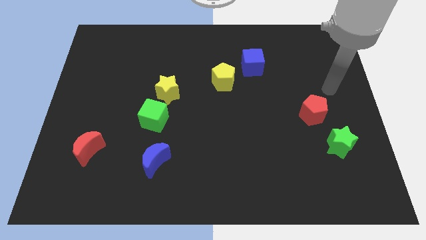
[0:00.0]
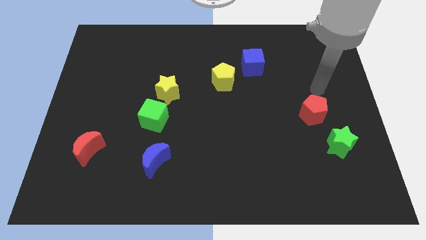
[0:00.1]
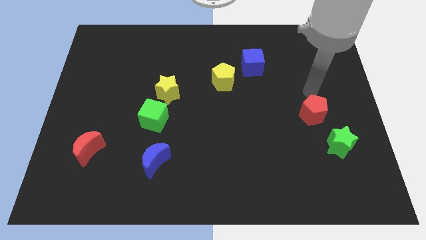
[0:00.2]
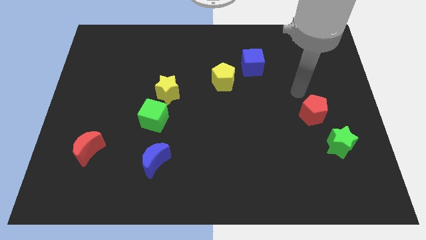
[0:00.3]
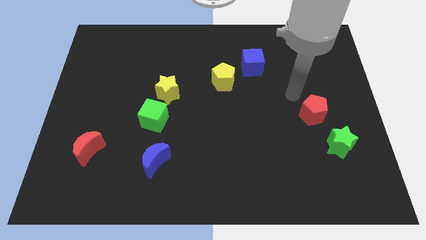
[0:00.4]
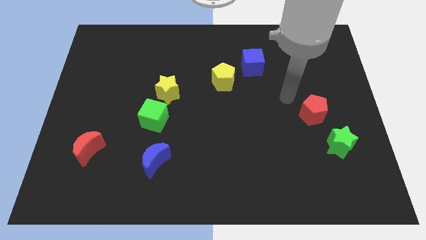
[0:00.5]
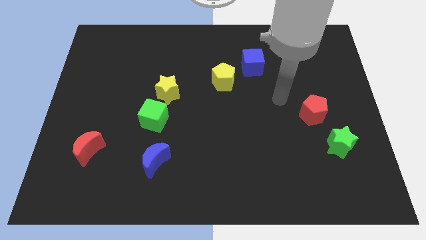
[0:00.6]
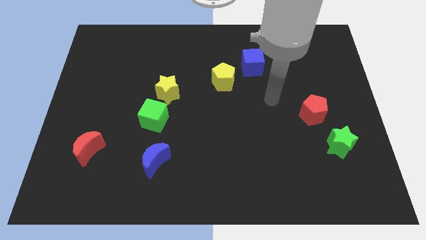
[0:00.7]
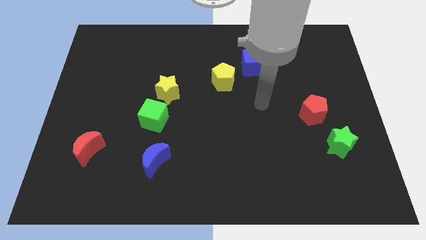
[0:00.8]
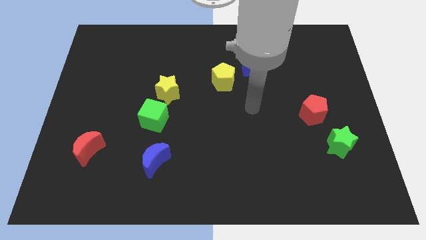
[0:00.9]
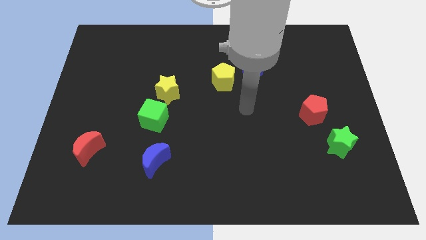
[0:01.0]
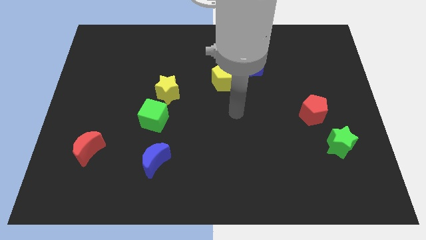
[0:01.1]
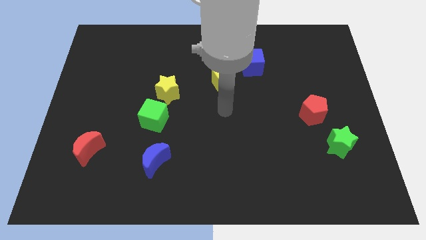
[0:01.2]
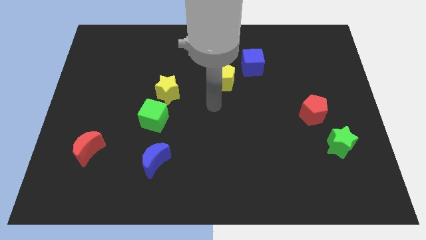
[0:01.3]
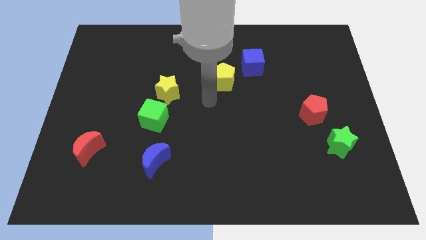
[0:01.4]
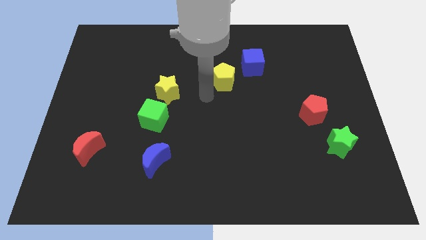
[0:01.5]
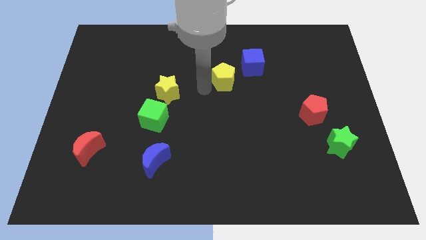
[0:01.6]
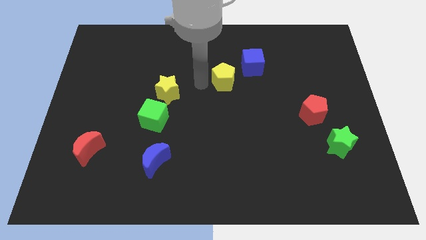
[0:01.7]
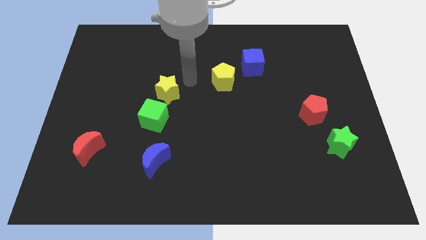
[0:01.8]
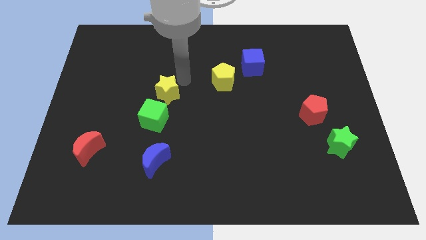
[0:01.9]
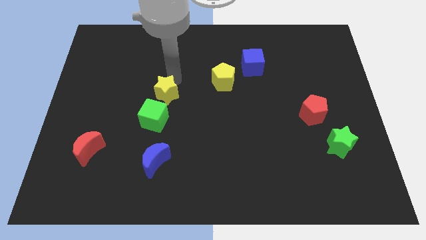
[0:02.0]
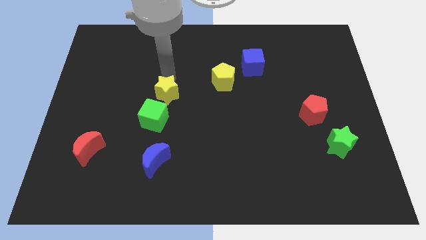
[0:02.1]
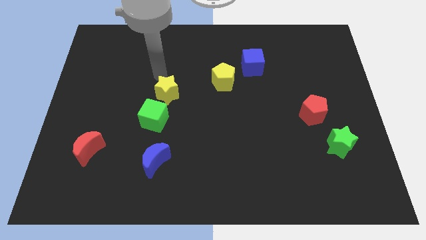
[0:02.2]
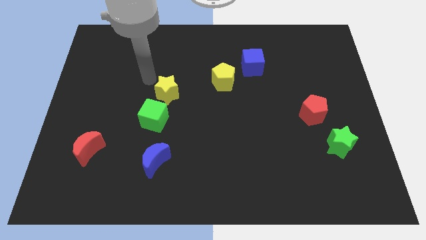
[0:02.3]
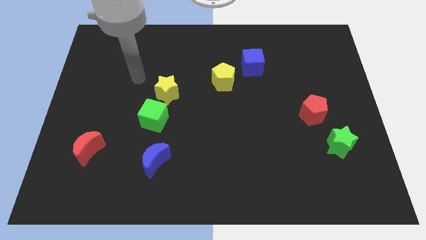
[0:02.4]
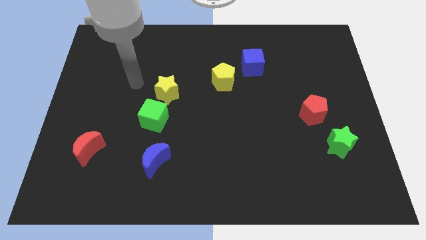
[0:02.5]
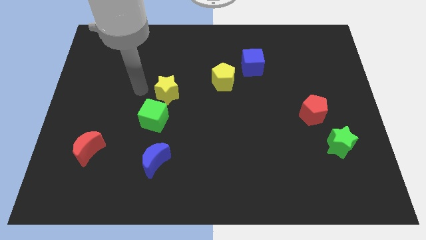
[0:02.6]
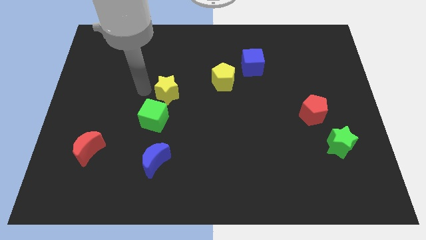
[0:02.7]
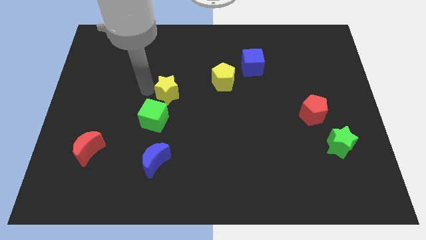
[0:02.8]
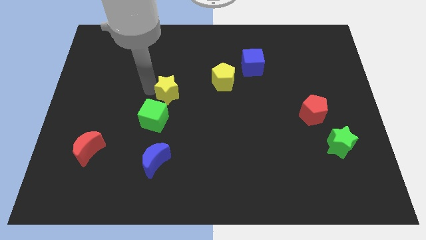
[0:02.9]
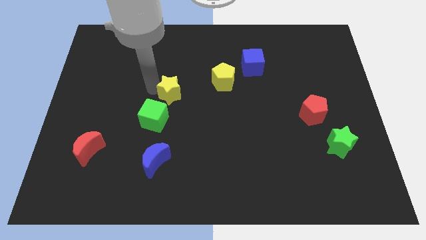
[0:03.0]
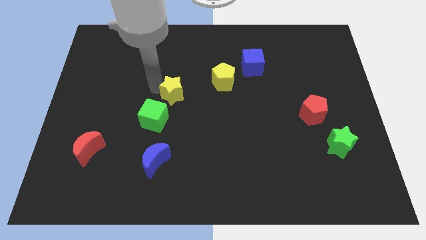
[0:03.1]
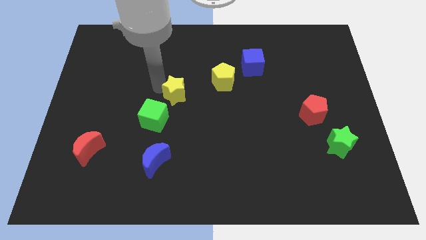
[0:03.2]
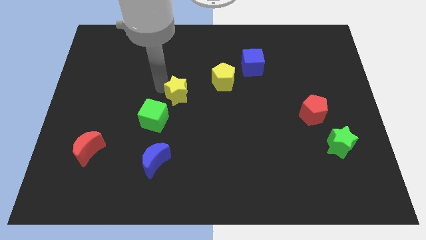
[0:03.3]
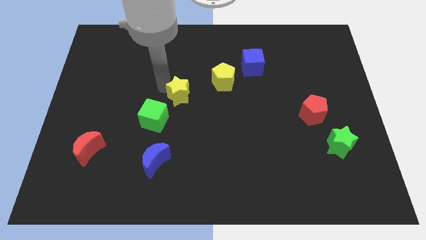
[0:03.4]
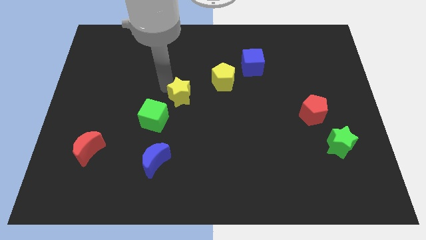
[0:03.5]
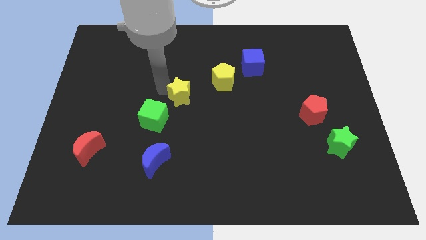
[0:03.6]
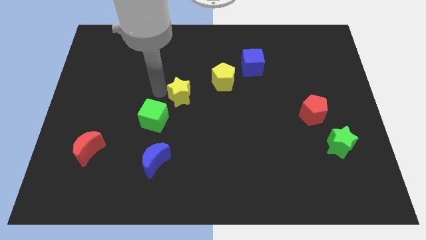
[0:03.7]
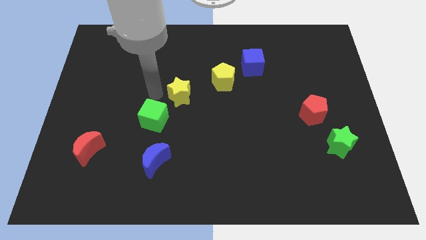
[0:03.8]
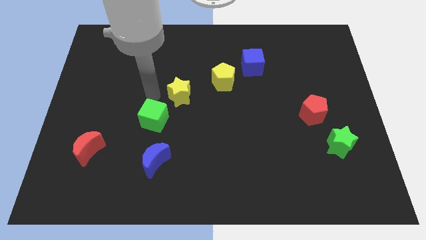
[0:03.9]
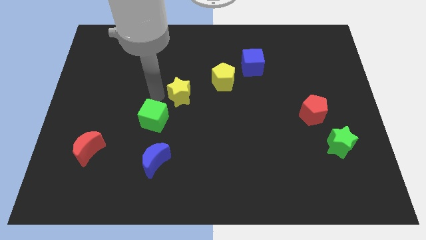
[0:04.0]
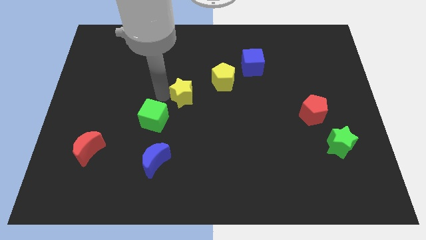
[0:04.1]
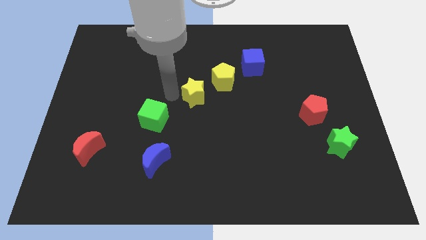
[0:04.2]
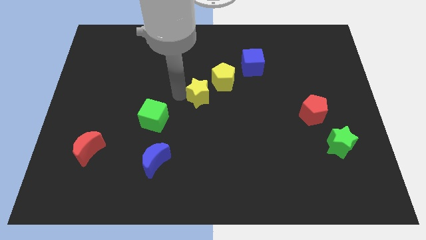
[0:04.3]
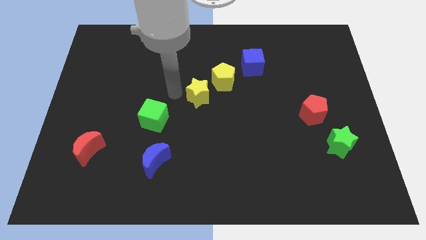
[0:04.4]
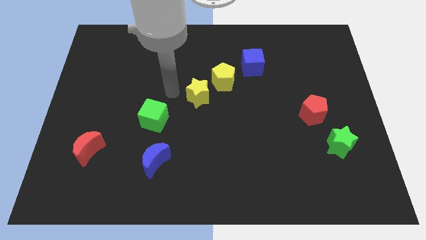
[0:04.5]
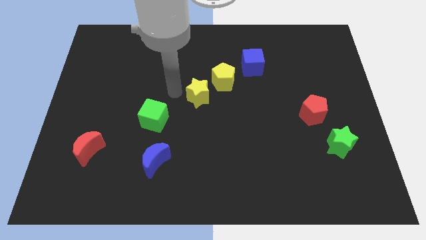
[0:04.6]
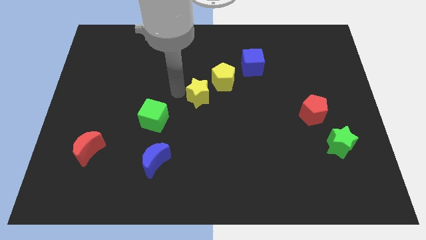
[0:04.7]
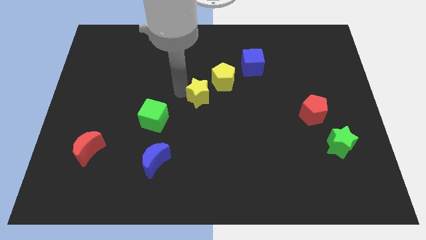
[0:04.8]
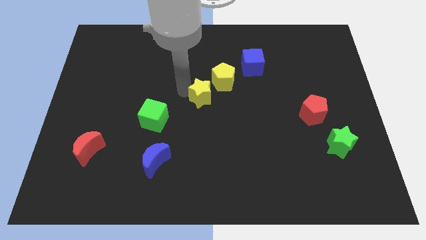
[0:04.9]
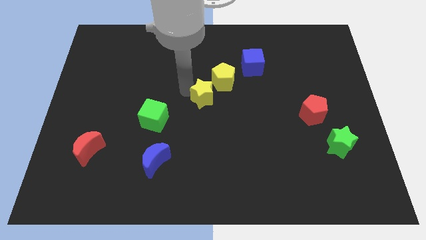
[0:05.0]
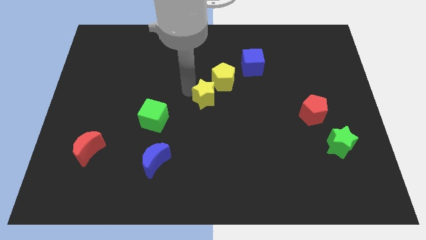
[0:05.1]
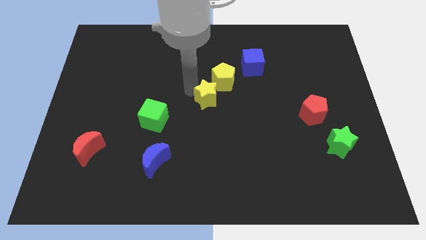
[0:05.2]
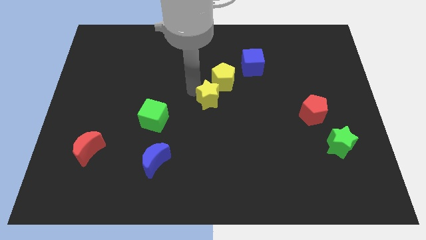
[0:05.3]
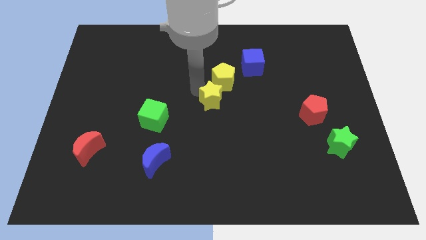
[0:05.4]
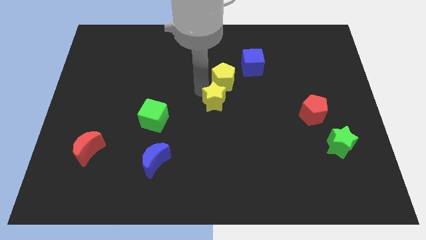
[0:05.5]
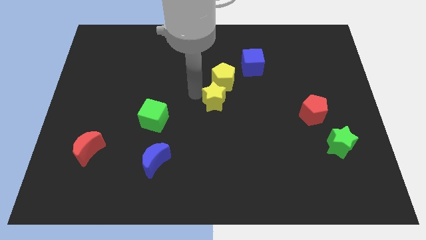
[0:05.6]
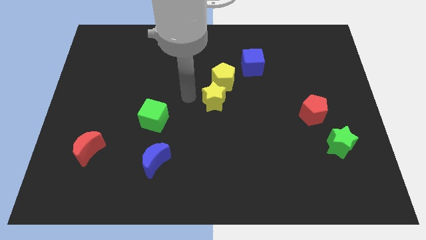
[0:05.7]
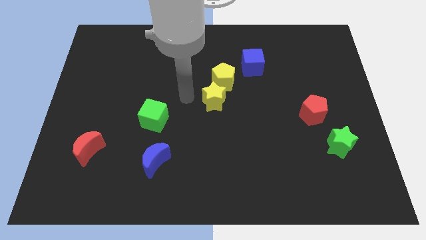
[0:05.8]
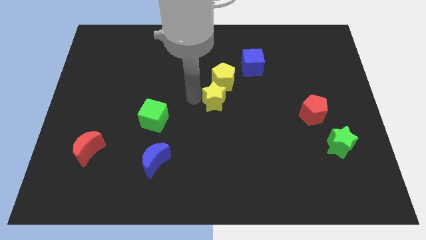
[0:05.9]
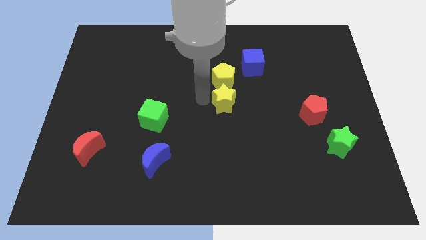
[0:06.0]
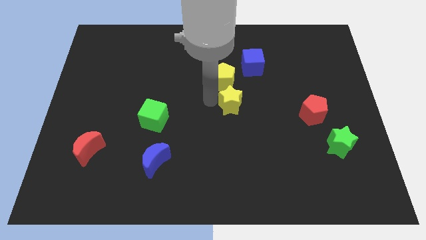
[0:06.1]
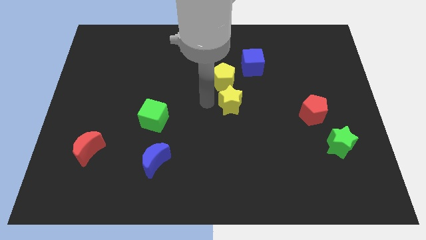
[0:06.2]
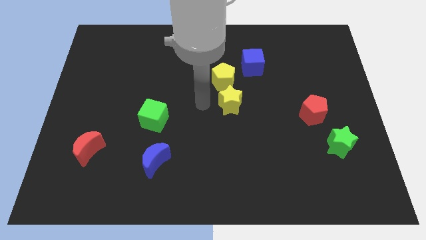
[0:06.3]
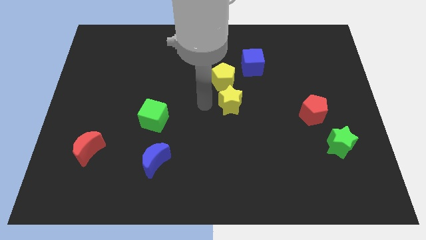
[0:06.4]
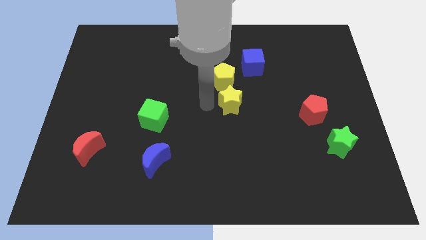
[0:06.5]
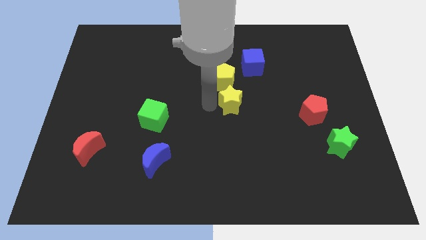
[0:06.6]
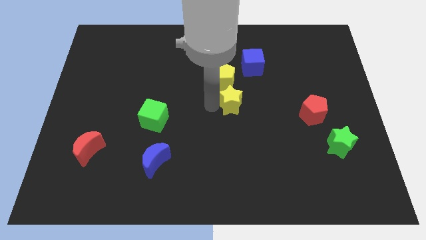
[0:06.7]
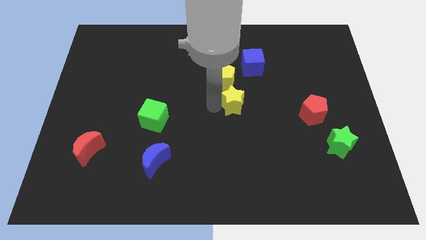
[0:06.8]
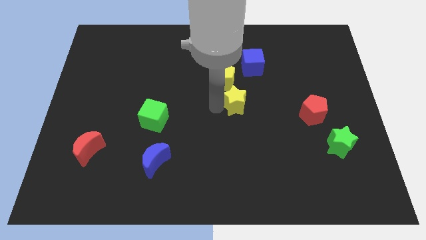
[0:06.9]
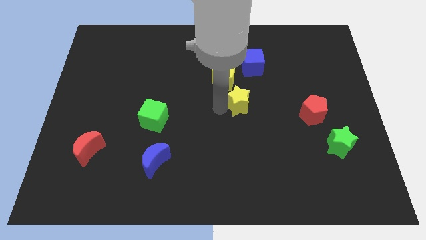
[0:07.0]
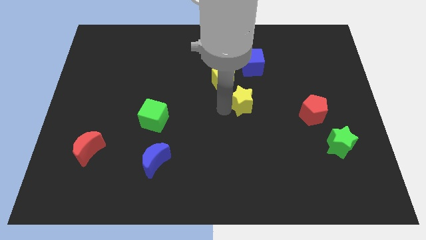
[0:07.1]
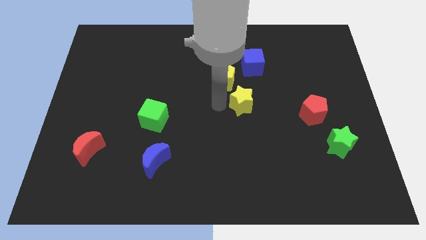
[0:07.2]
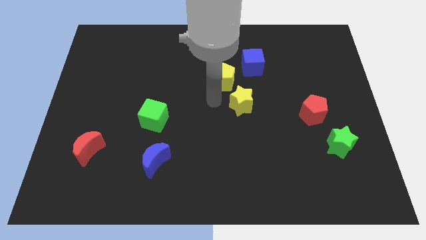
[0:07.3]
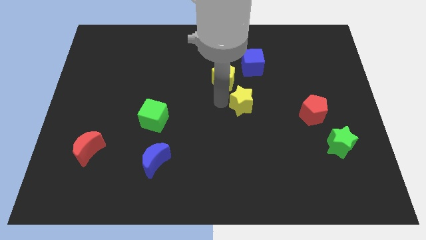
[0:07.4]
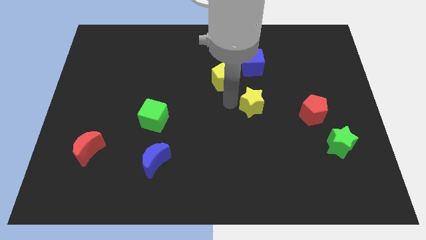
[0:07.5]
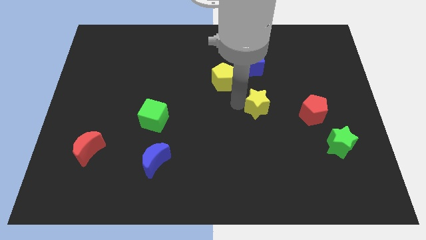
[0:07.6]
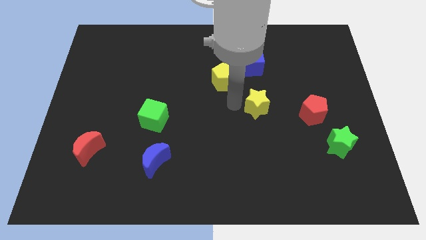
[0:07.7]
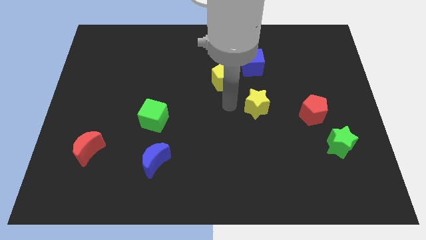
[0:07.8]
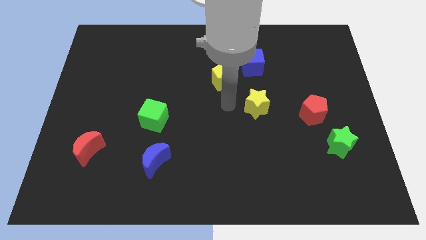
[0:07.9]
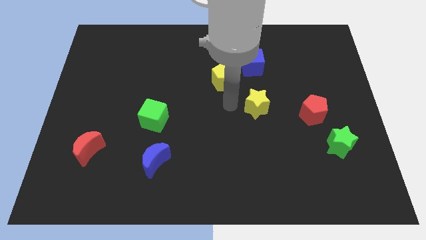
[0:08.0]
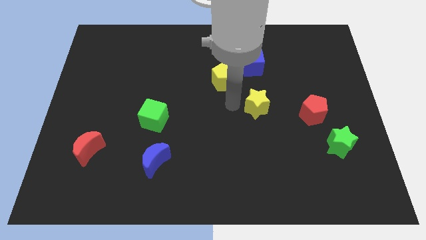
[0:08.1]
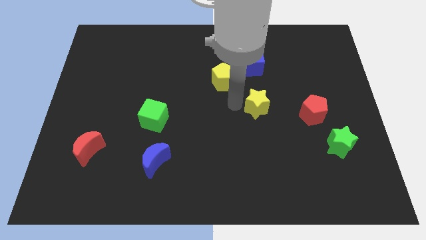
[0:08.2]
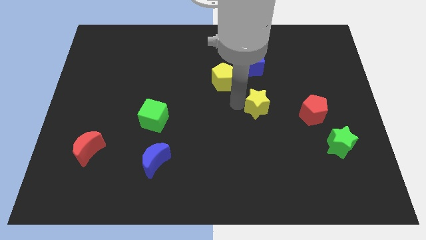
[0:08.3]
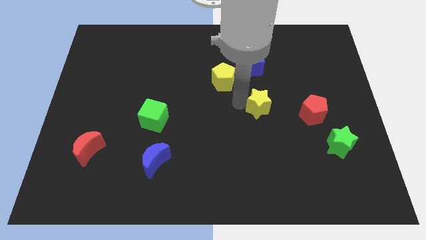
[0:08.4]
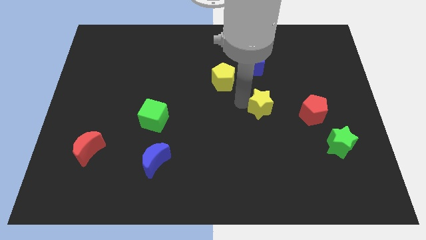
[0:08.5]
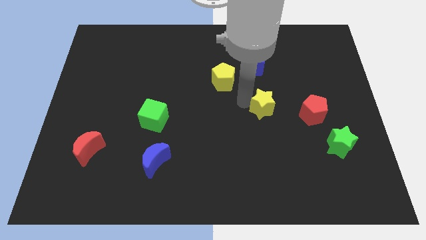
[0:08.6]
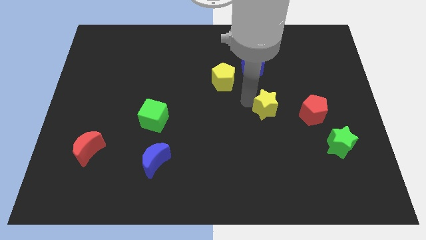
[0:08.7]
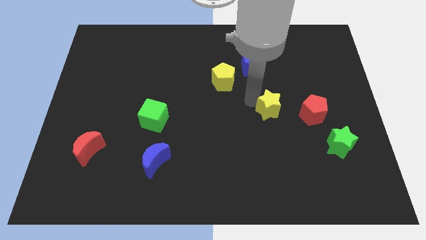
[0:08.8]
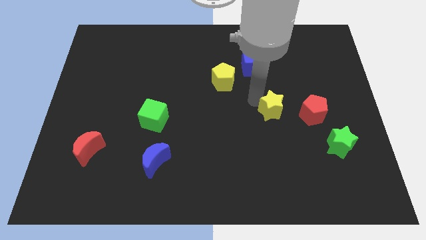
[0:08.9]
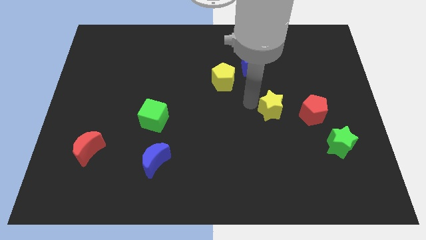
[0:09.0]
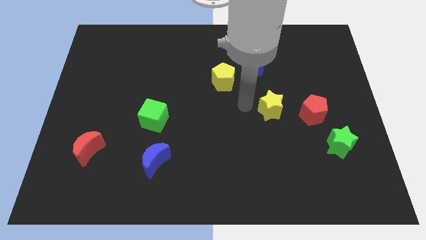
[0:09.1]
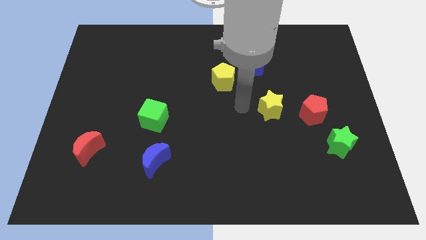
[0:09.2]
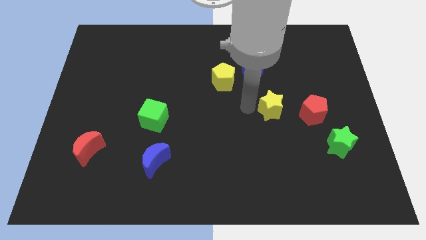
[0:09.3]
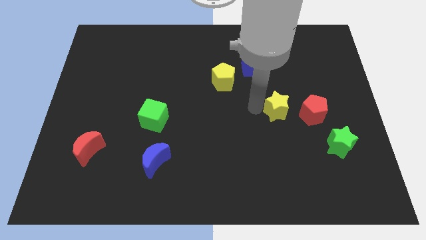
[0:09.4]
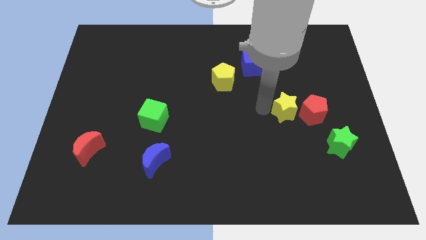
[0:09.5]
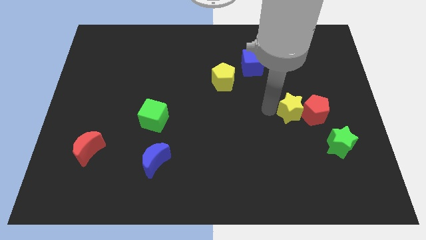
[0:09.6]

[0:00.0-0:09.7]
move the yellow star next to the red pentagon
